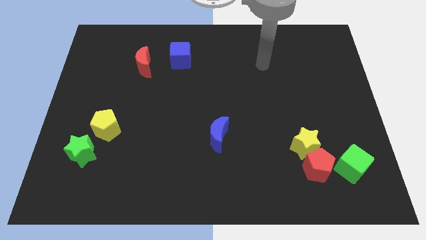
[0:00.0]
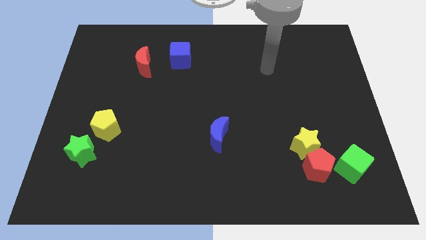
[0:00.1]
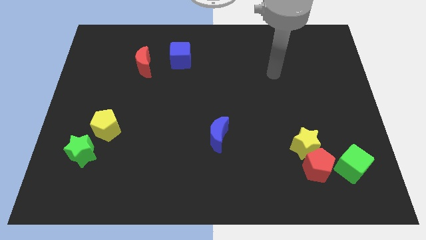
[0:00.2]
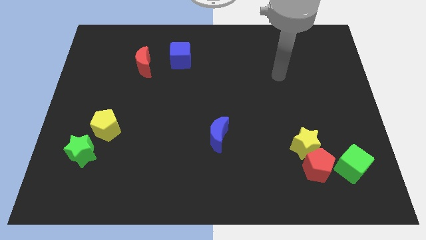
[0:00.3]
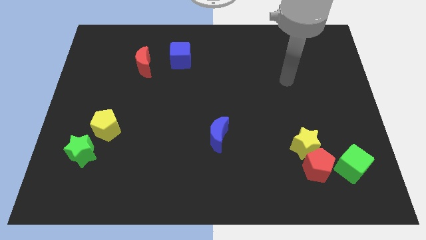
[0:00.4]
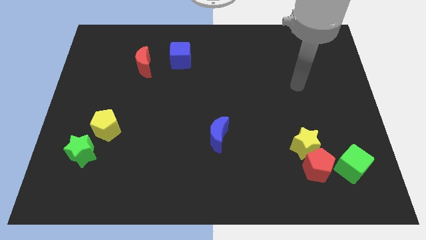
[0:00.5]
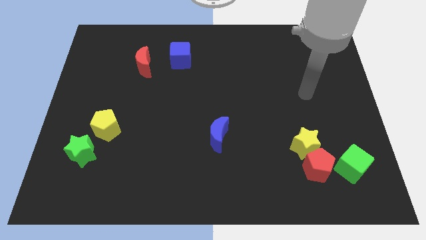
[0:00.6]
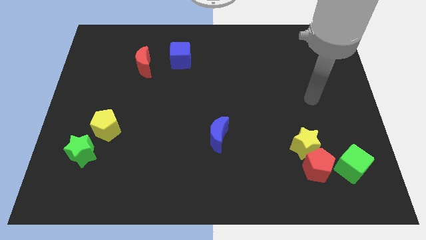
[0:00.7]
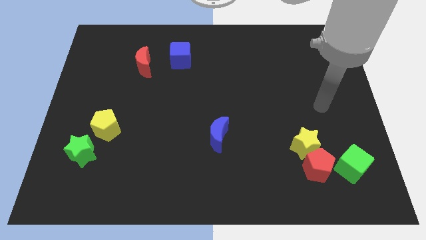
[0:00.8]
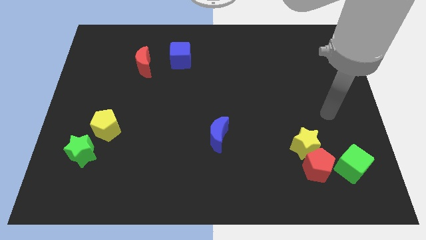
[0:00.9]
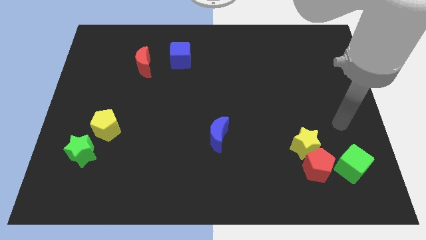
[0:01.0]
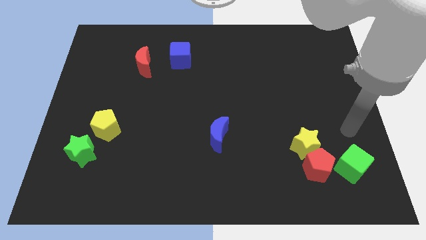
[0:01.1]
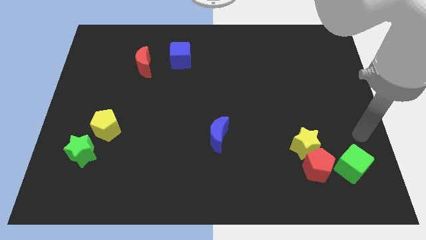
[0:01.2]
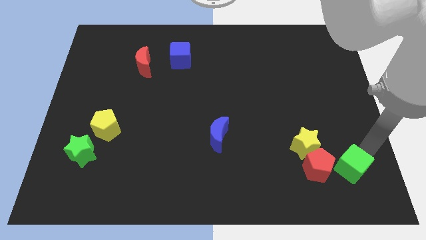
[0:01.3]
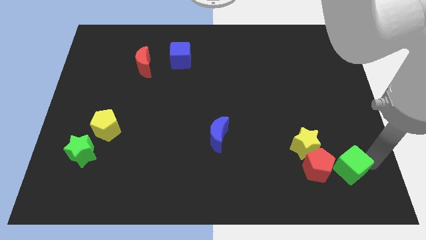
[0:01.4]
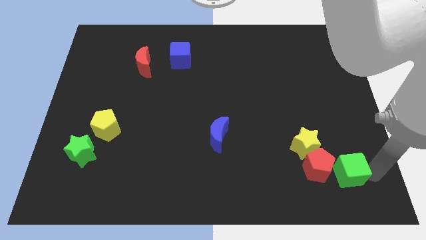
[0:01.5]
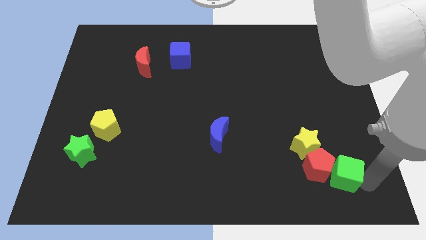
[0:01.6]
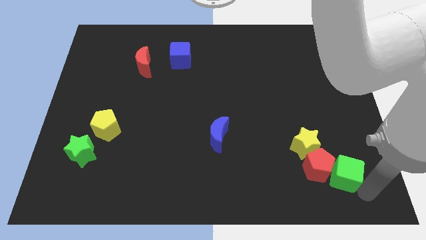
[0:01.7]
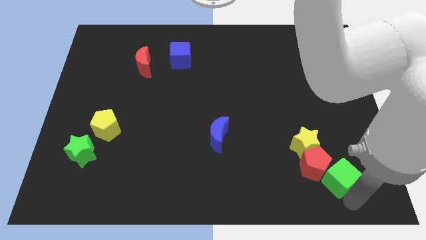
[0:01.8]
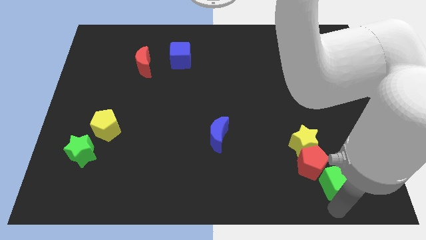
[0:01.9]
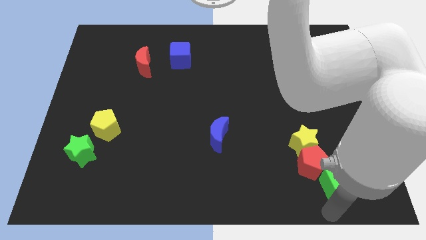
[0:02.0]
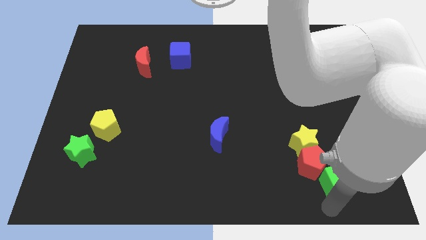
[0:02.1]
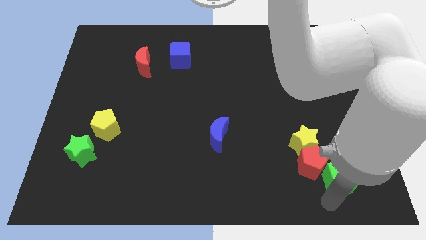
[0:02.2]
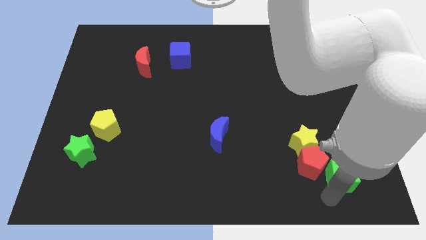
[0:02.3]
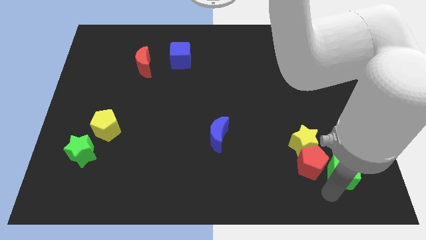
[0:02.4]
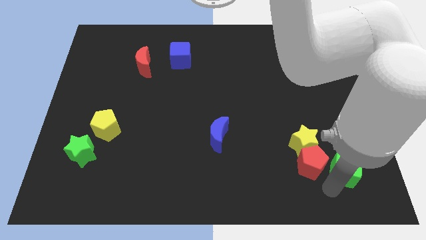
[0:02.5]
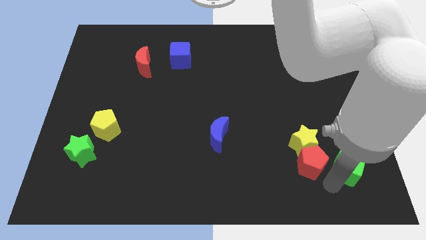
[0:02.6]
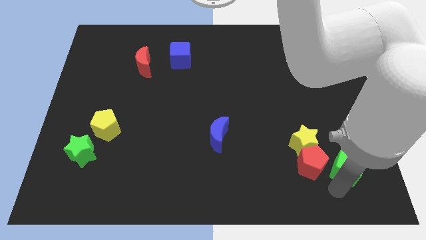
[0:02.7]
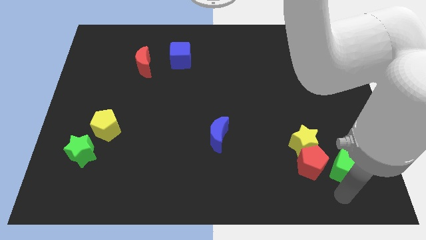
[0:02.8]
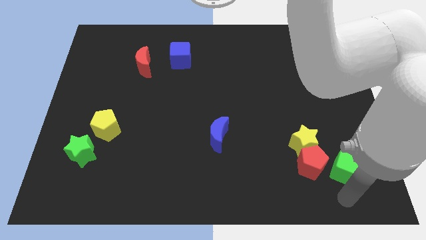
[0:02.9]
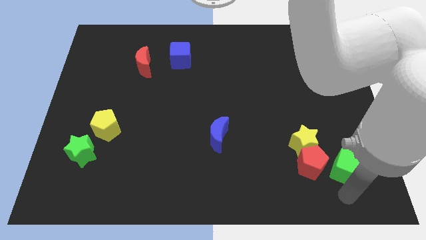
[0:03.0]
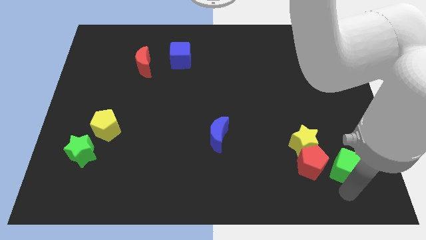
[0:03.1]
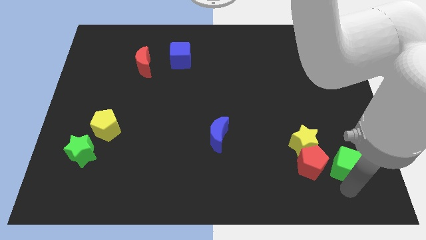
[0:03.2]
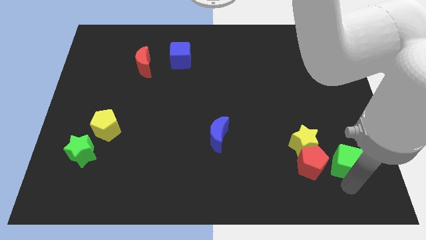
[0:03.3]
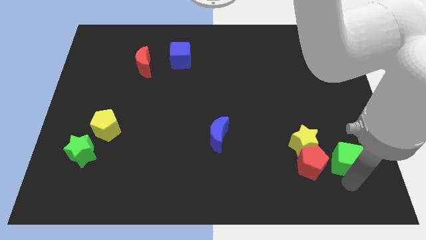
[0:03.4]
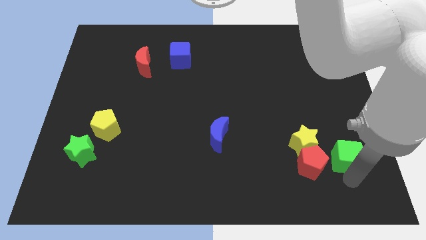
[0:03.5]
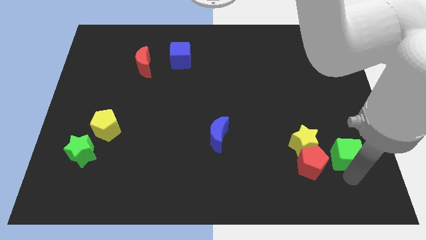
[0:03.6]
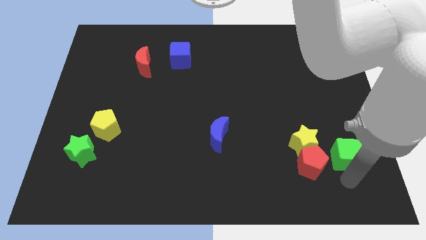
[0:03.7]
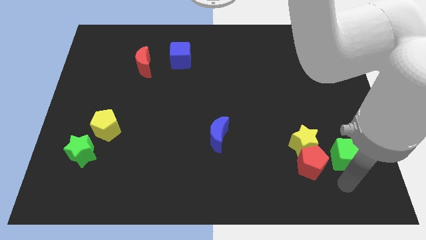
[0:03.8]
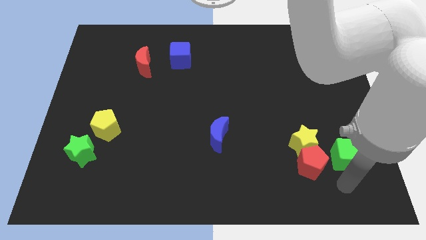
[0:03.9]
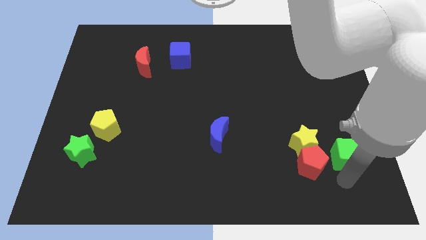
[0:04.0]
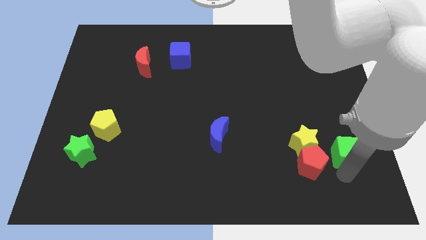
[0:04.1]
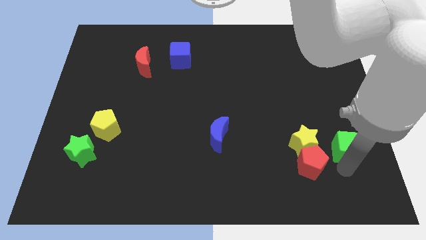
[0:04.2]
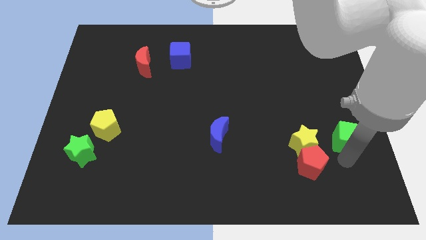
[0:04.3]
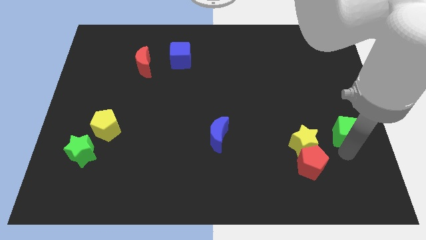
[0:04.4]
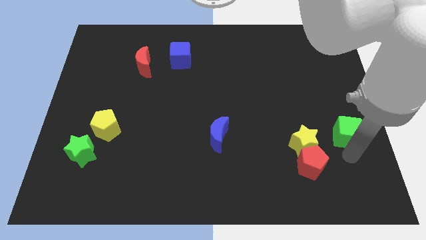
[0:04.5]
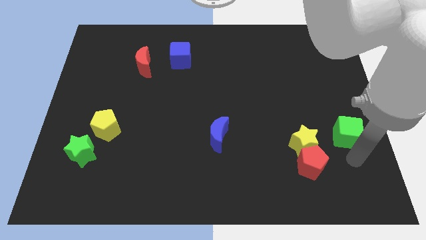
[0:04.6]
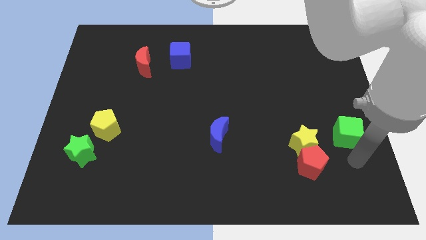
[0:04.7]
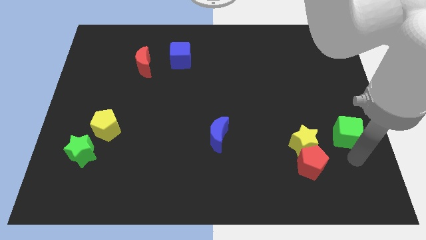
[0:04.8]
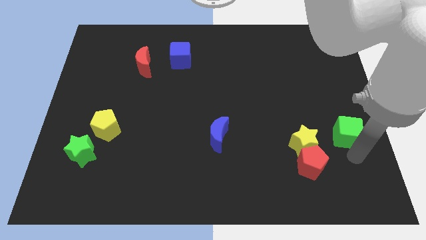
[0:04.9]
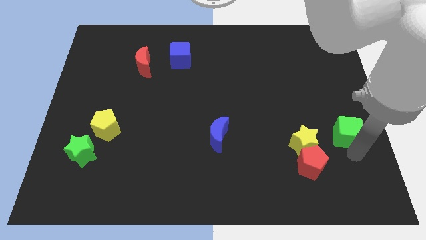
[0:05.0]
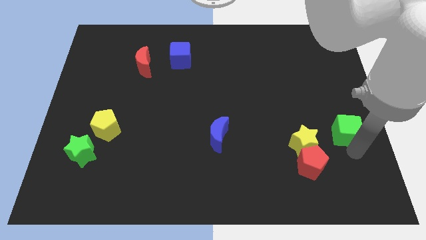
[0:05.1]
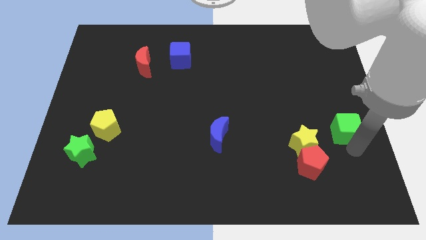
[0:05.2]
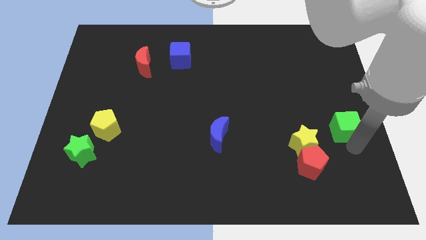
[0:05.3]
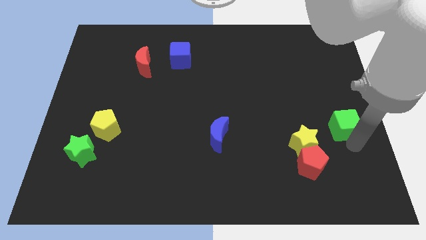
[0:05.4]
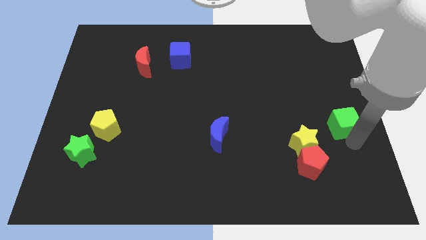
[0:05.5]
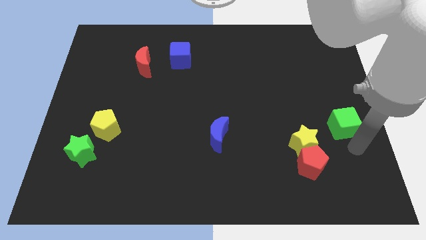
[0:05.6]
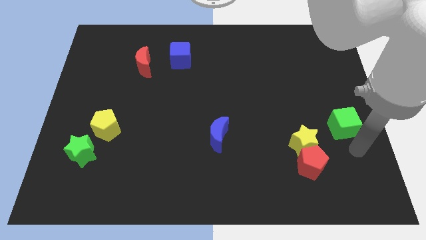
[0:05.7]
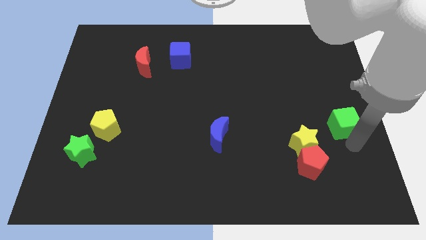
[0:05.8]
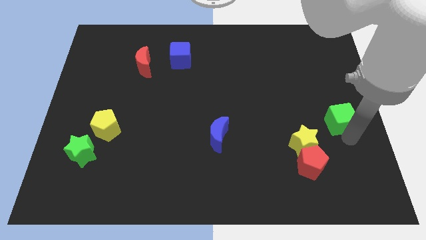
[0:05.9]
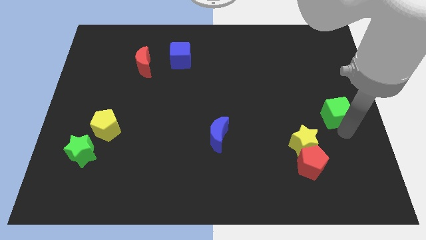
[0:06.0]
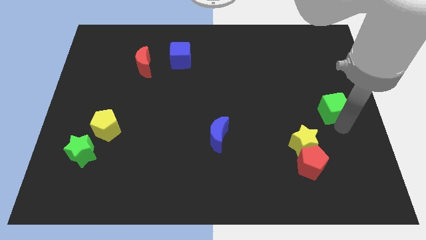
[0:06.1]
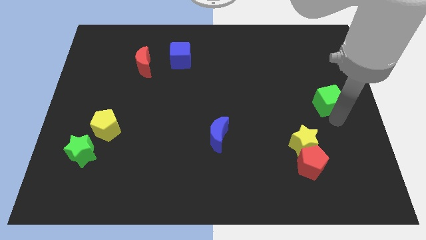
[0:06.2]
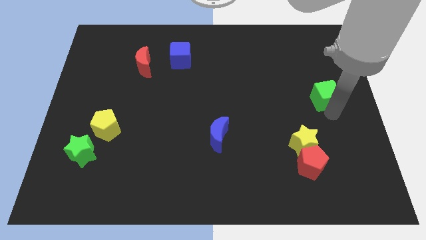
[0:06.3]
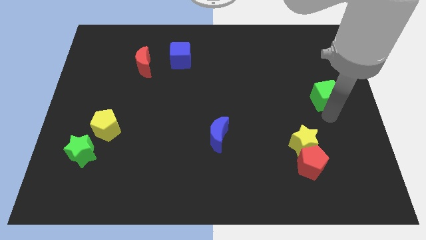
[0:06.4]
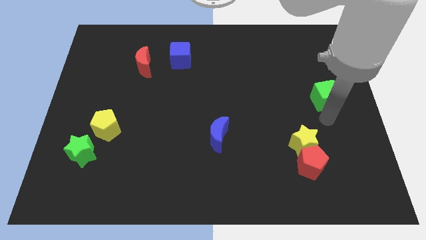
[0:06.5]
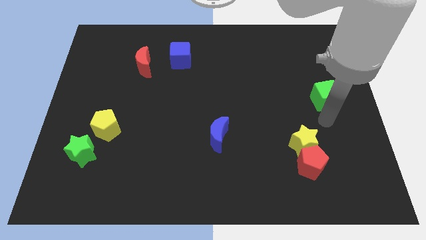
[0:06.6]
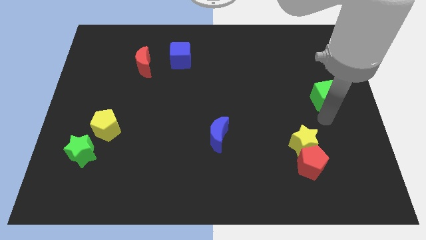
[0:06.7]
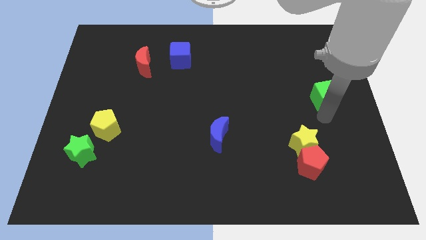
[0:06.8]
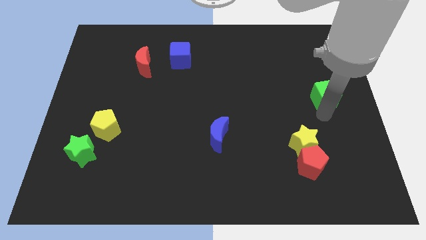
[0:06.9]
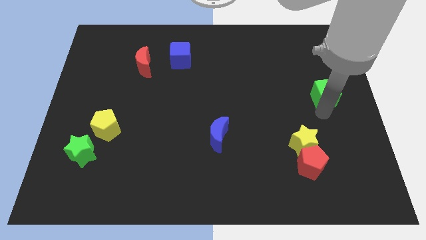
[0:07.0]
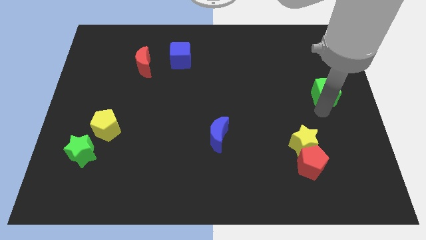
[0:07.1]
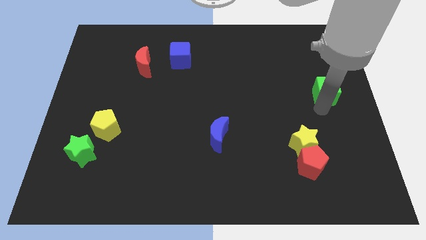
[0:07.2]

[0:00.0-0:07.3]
slide the green cube upwards

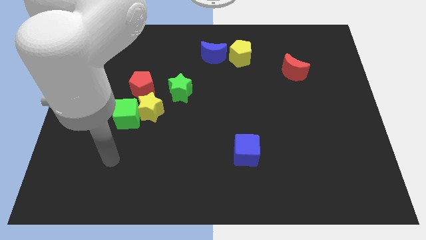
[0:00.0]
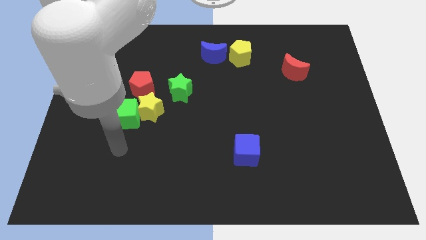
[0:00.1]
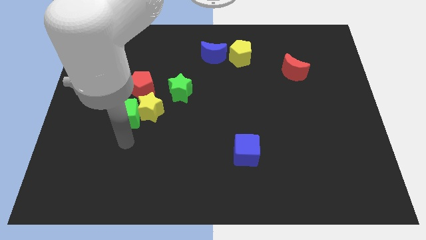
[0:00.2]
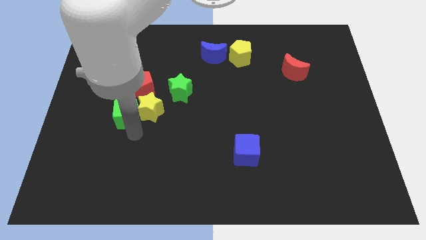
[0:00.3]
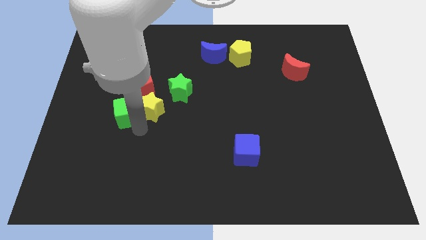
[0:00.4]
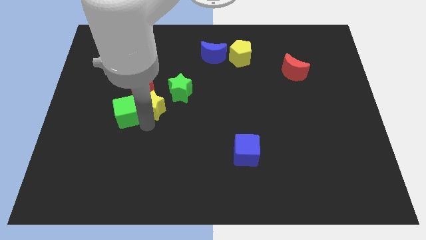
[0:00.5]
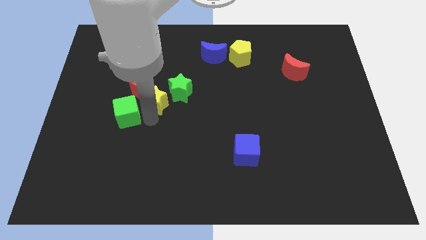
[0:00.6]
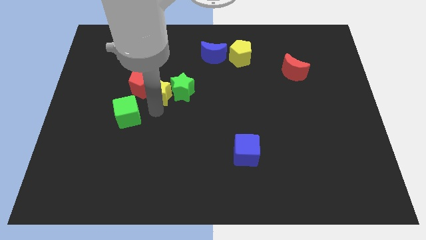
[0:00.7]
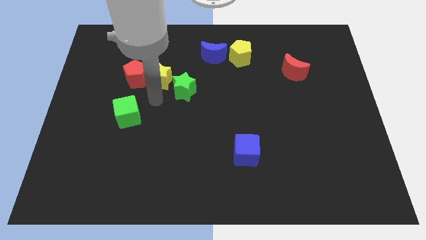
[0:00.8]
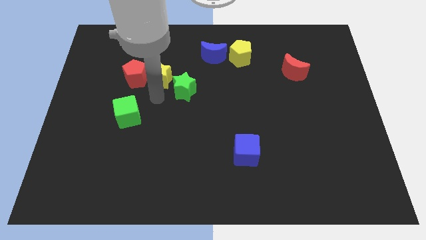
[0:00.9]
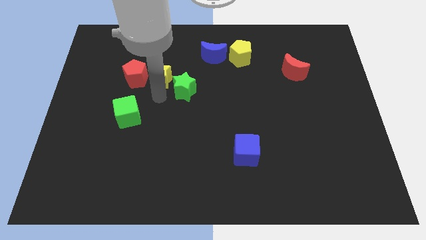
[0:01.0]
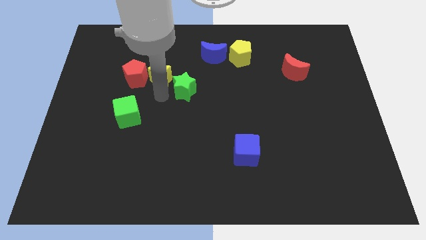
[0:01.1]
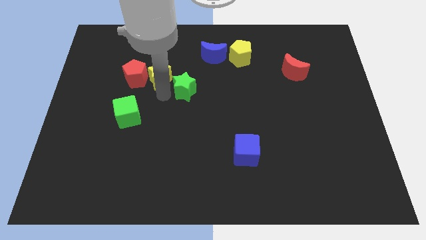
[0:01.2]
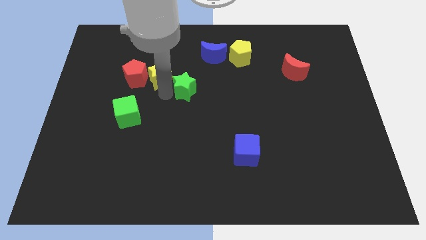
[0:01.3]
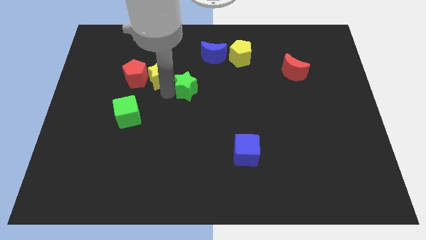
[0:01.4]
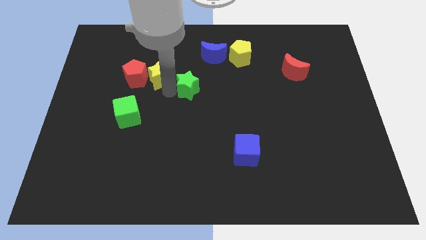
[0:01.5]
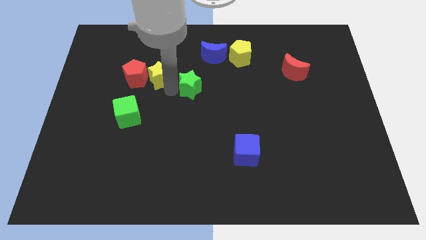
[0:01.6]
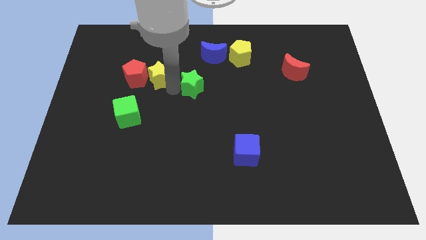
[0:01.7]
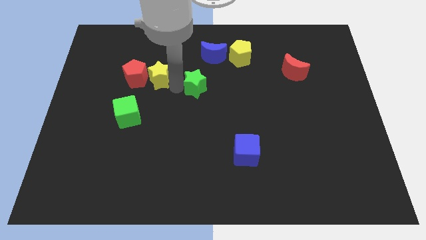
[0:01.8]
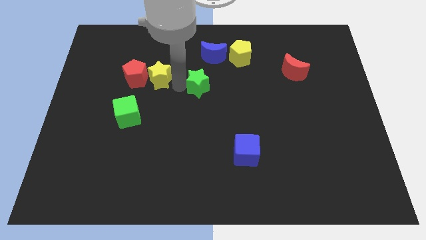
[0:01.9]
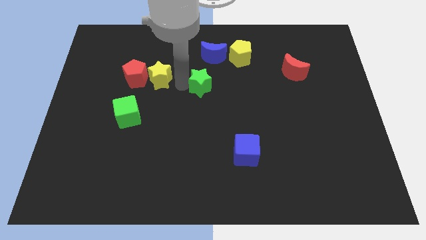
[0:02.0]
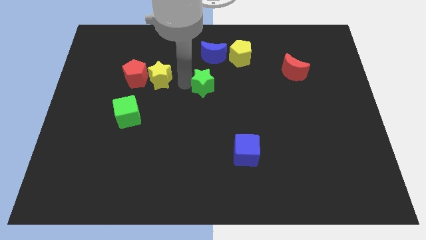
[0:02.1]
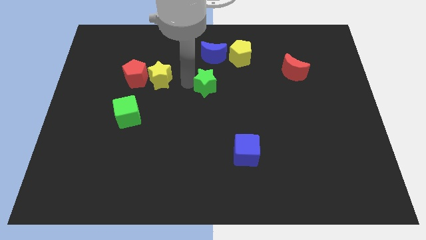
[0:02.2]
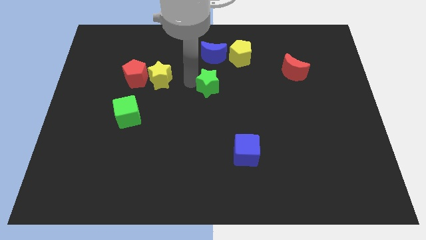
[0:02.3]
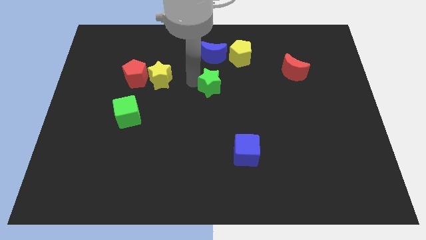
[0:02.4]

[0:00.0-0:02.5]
slightly push the green star to the right
